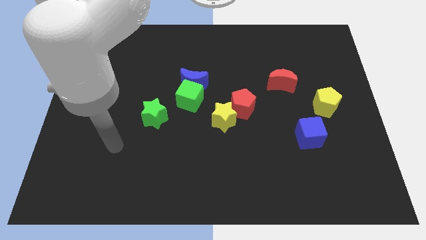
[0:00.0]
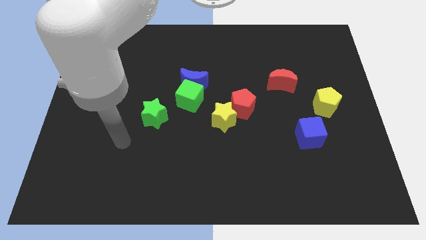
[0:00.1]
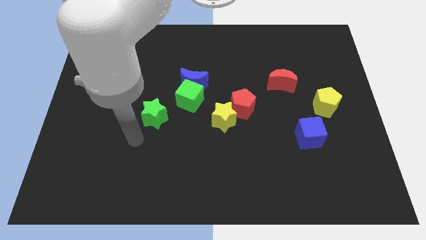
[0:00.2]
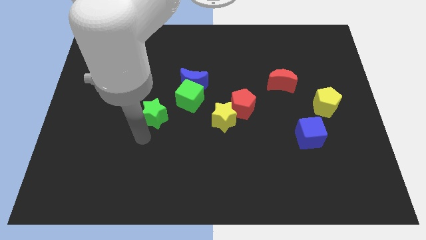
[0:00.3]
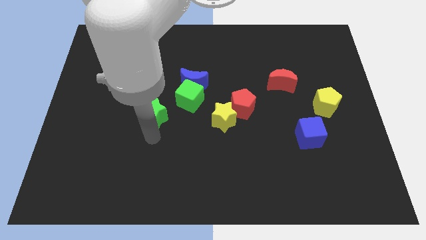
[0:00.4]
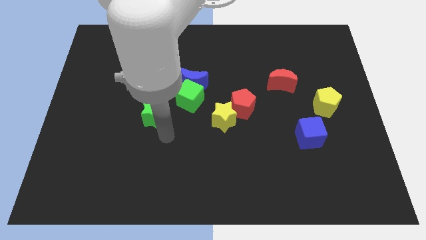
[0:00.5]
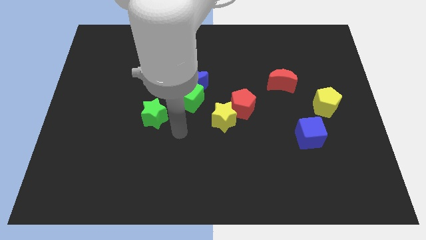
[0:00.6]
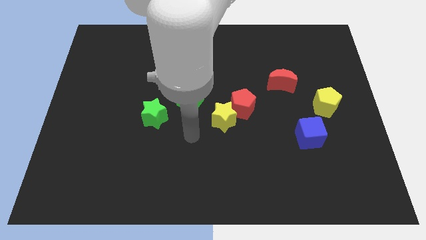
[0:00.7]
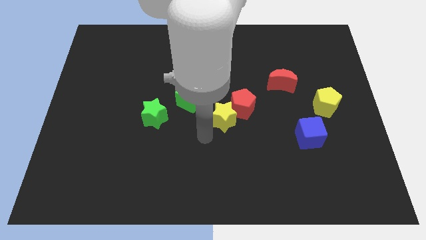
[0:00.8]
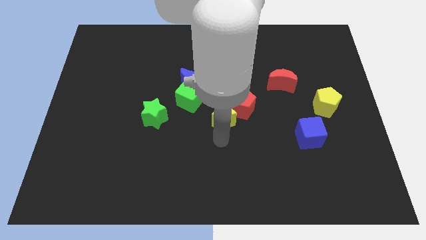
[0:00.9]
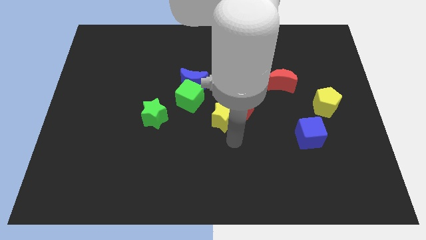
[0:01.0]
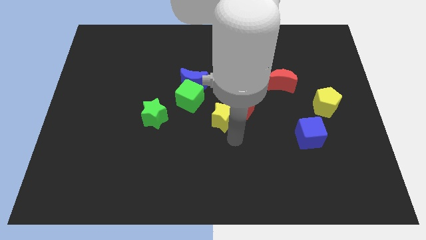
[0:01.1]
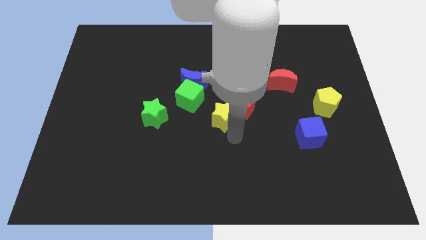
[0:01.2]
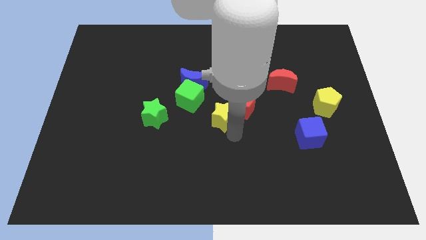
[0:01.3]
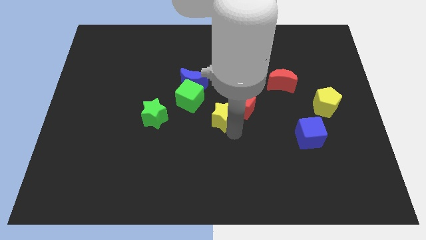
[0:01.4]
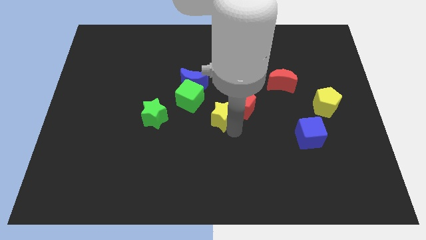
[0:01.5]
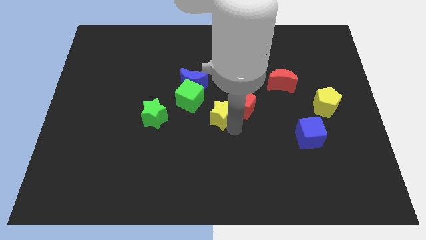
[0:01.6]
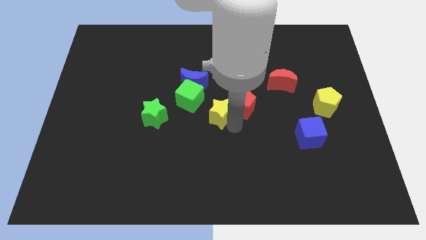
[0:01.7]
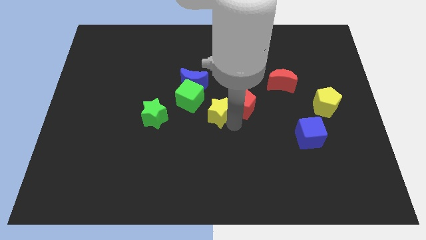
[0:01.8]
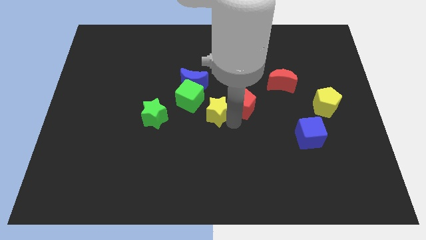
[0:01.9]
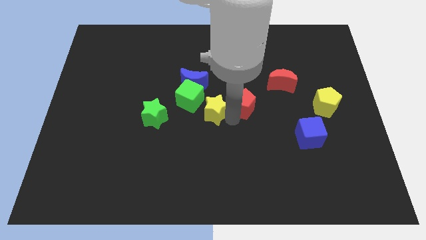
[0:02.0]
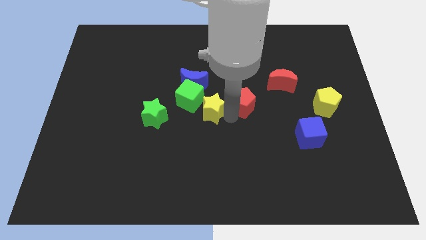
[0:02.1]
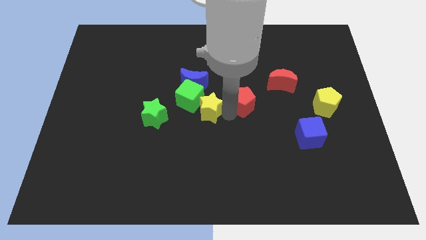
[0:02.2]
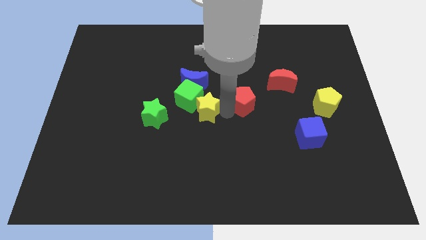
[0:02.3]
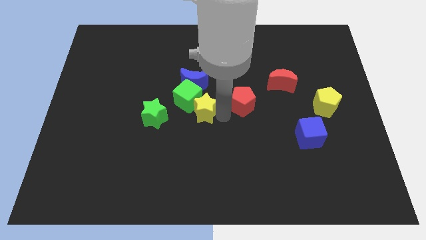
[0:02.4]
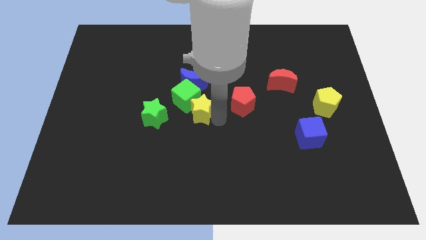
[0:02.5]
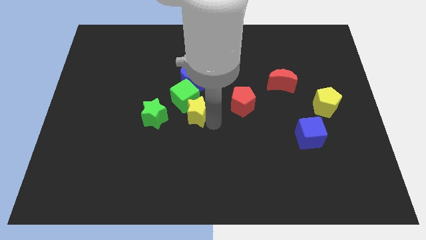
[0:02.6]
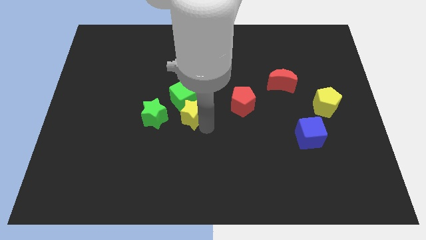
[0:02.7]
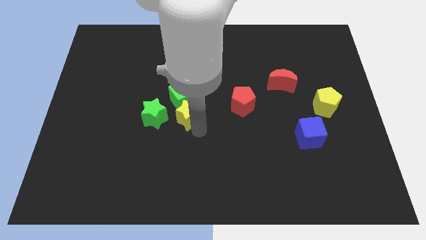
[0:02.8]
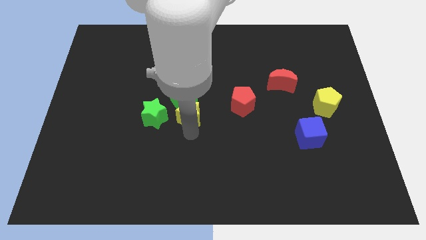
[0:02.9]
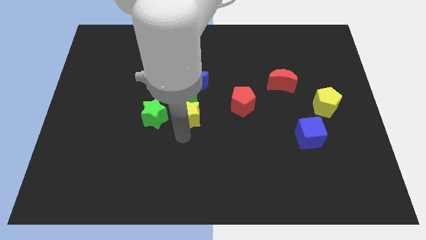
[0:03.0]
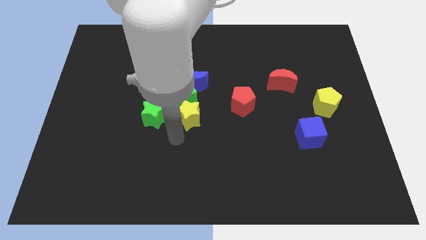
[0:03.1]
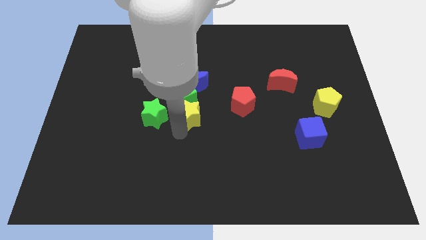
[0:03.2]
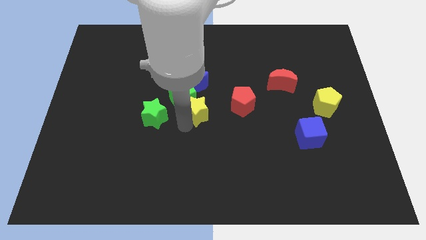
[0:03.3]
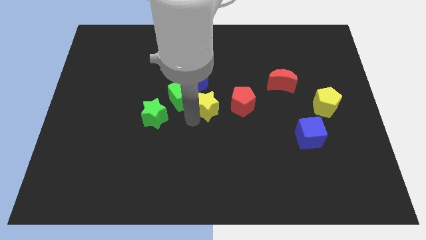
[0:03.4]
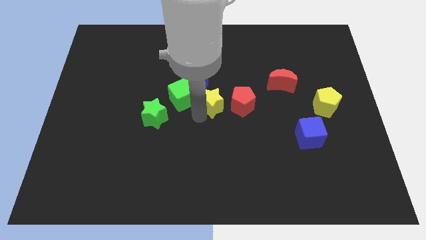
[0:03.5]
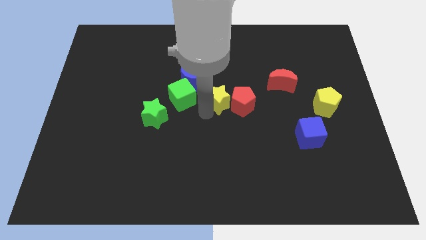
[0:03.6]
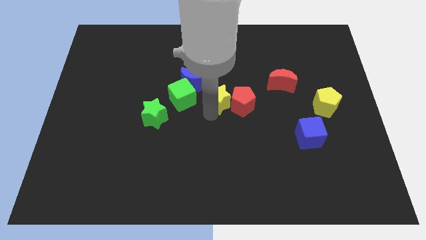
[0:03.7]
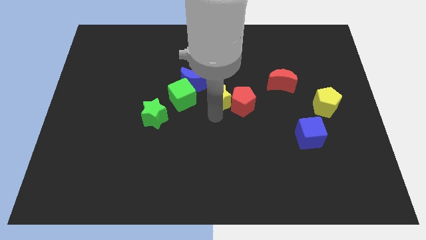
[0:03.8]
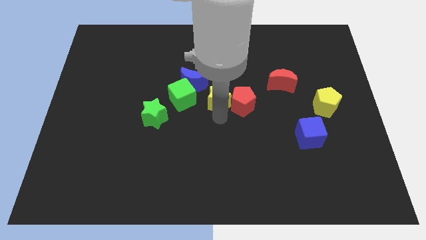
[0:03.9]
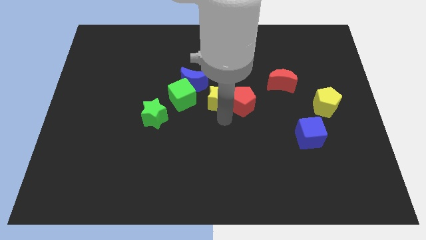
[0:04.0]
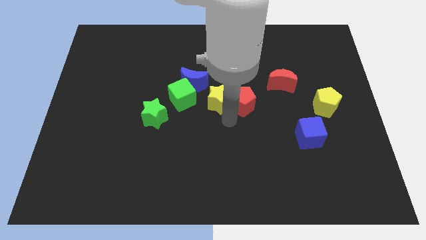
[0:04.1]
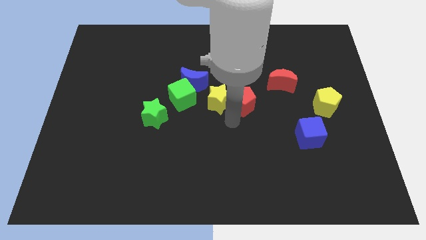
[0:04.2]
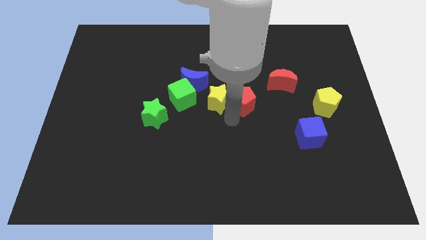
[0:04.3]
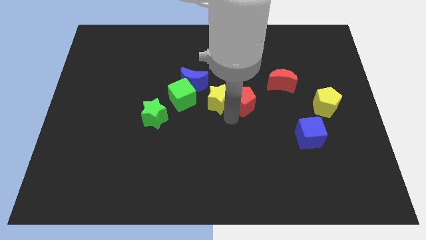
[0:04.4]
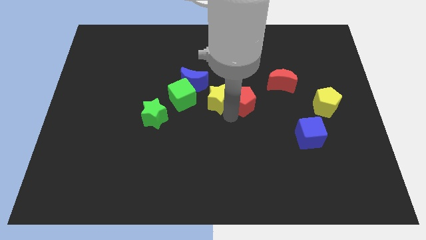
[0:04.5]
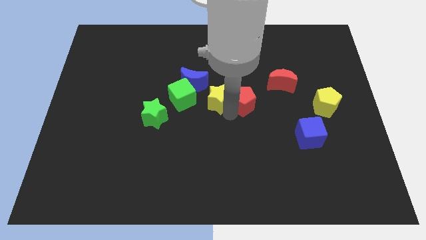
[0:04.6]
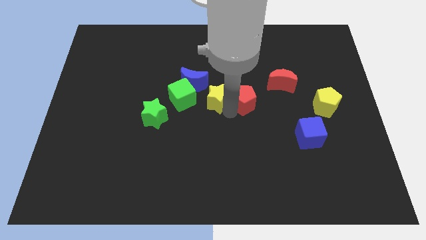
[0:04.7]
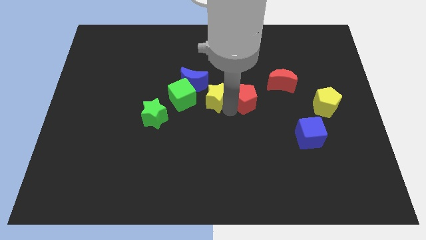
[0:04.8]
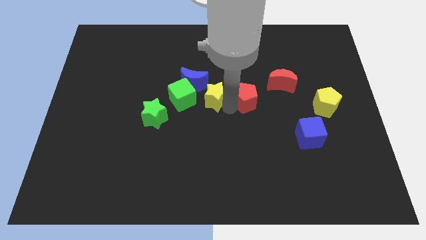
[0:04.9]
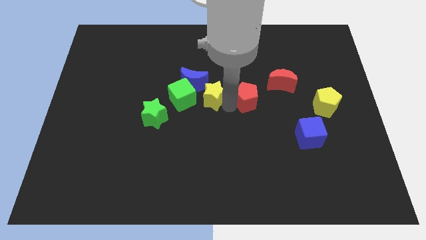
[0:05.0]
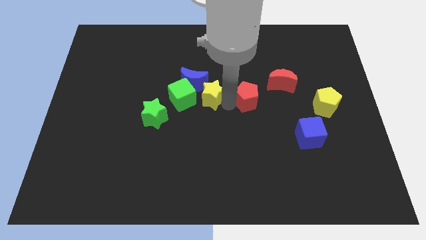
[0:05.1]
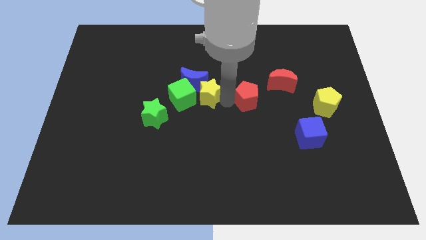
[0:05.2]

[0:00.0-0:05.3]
slightly push the yellow star upwards and then to the left

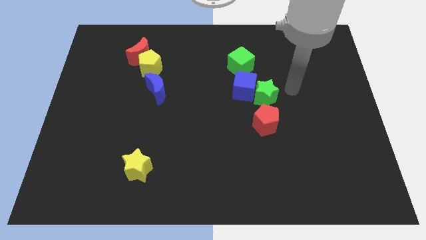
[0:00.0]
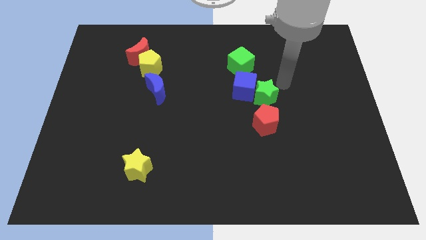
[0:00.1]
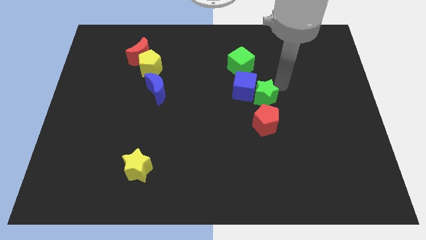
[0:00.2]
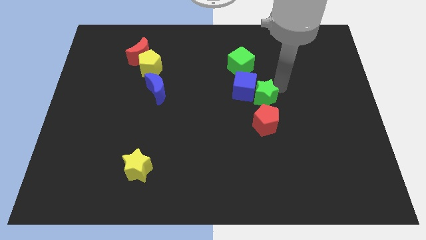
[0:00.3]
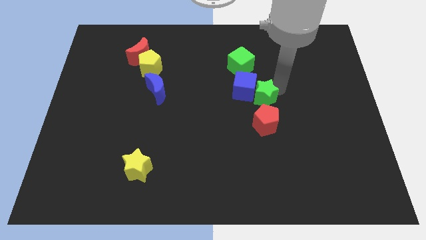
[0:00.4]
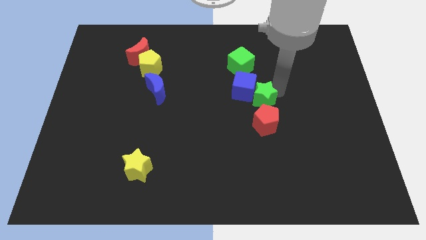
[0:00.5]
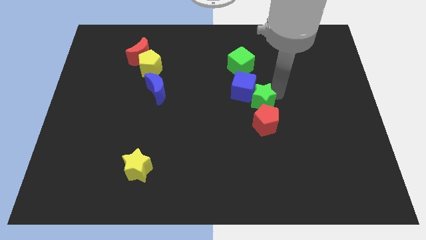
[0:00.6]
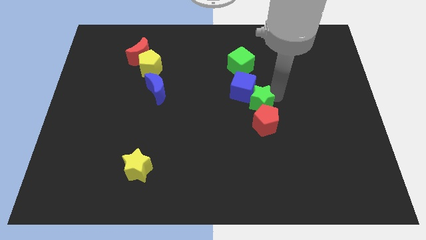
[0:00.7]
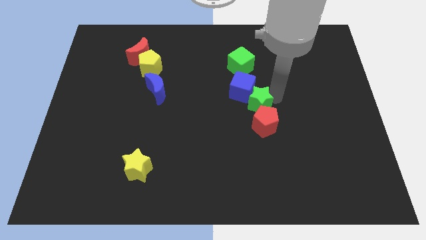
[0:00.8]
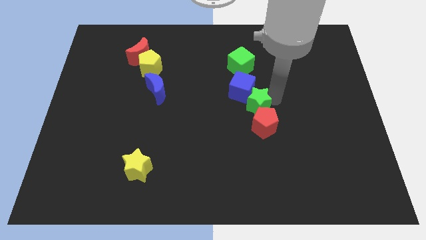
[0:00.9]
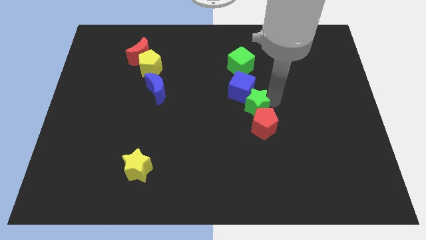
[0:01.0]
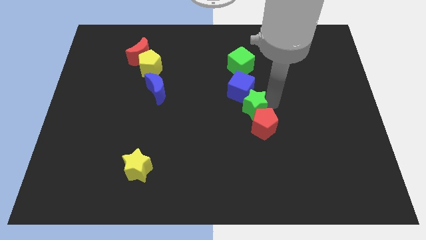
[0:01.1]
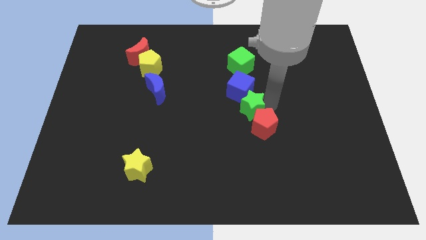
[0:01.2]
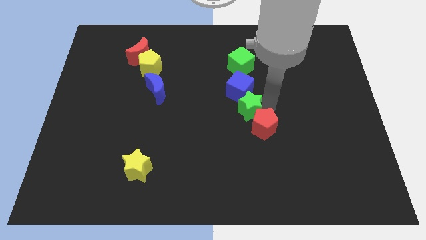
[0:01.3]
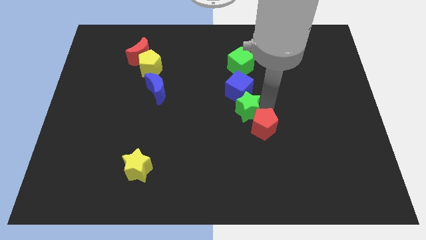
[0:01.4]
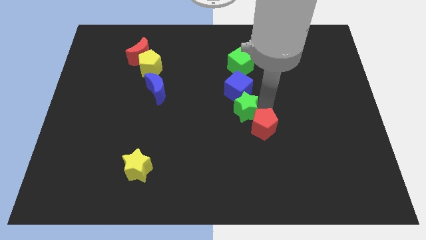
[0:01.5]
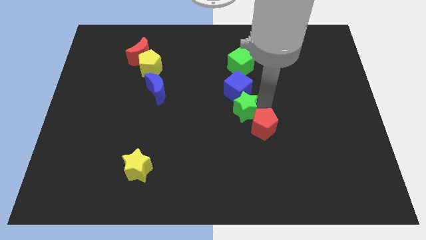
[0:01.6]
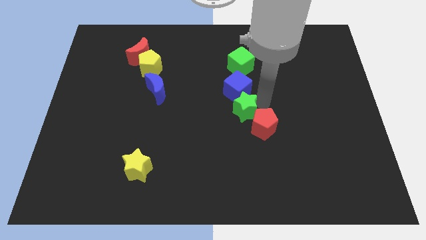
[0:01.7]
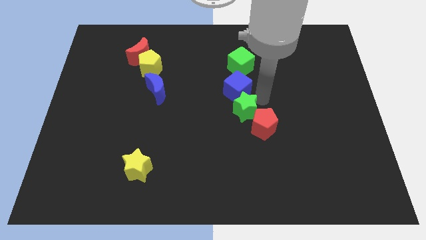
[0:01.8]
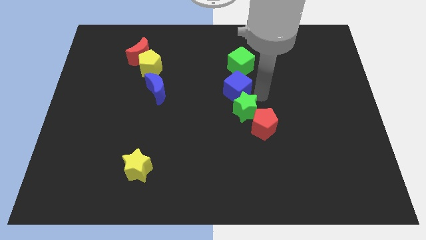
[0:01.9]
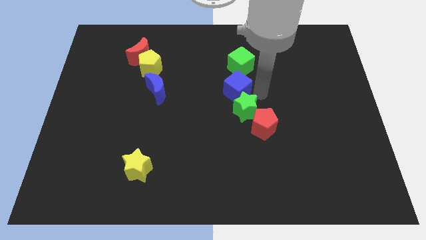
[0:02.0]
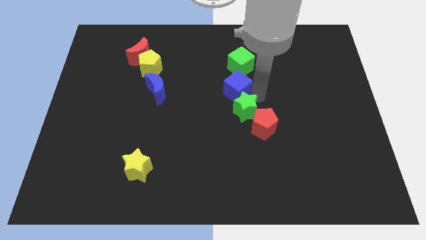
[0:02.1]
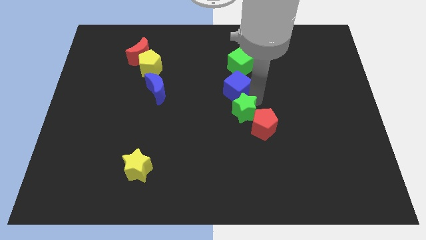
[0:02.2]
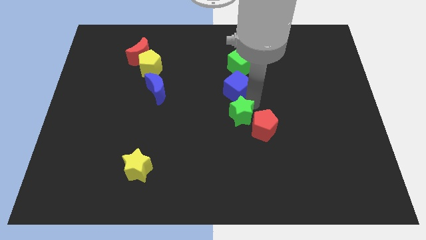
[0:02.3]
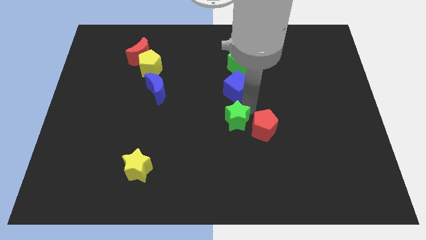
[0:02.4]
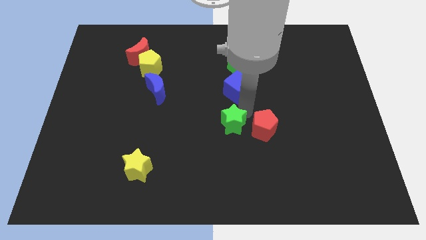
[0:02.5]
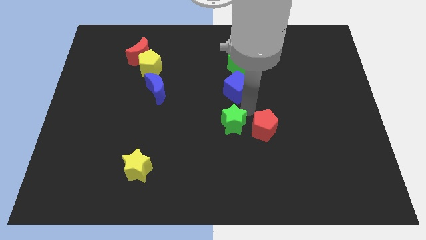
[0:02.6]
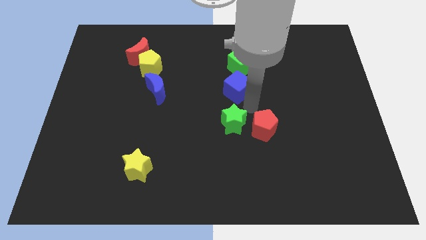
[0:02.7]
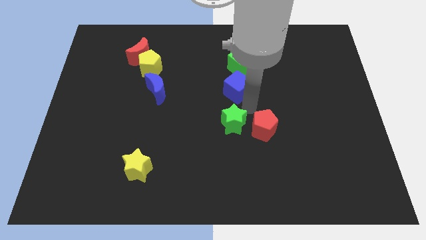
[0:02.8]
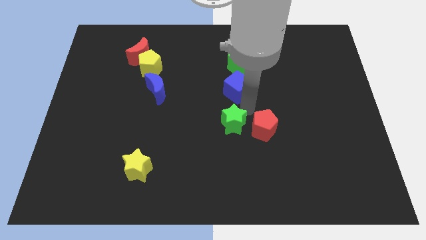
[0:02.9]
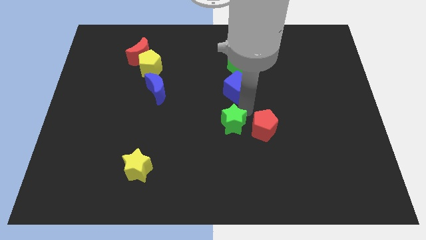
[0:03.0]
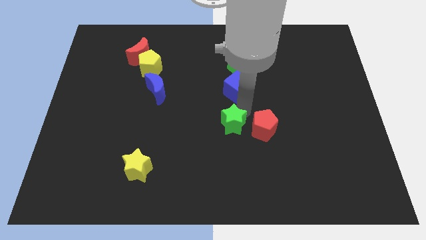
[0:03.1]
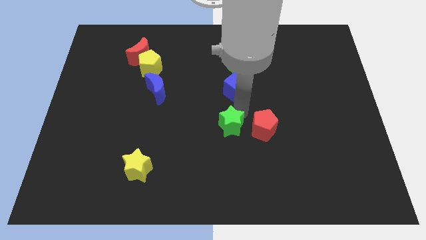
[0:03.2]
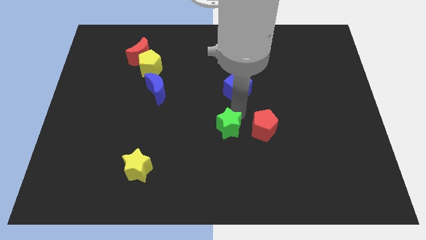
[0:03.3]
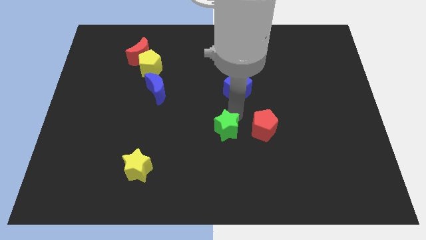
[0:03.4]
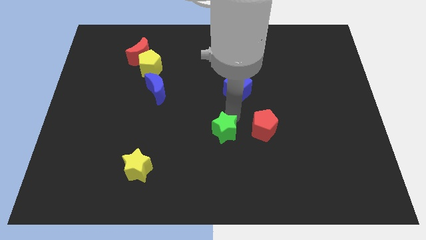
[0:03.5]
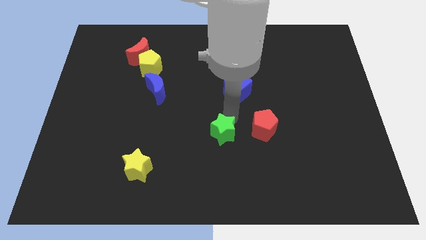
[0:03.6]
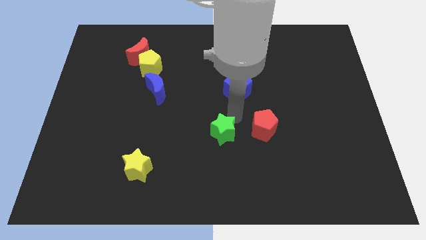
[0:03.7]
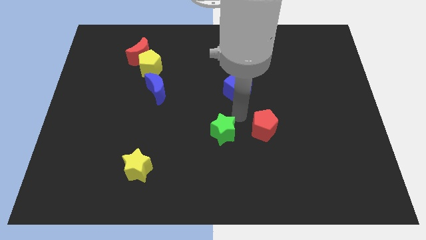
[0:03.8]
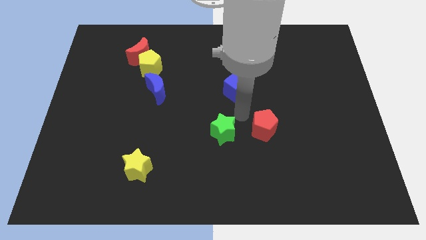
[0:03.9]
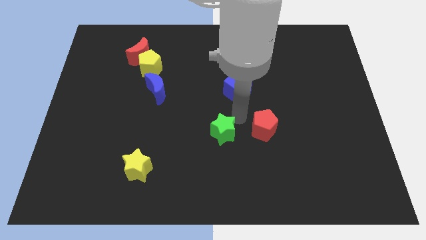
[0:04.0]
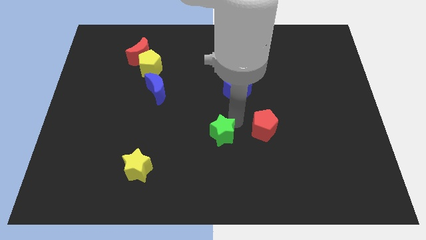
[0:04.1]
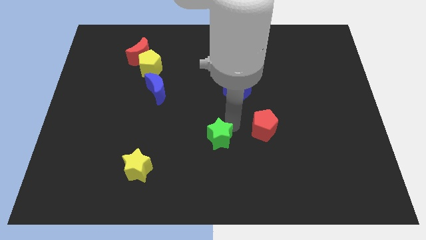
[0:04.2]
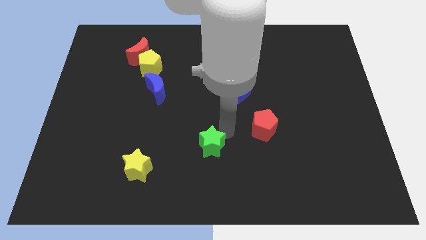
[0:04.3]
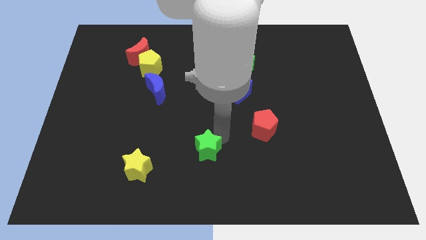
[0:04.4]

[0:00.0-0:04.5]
slide the green star down and left diagonally
